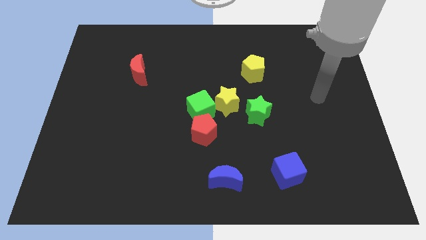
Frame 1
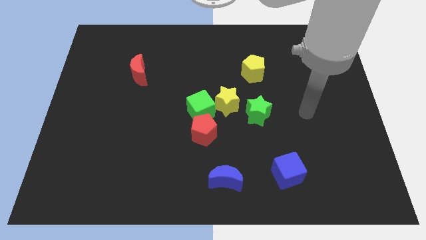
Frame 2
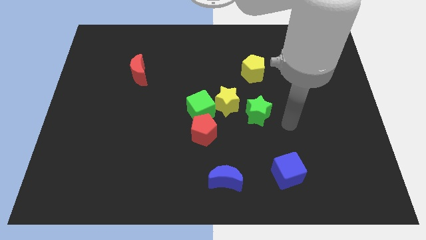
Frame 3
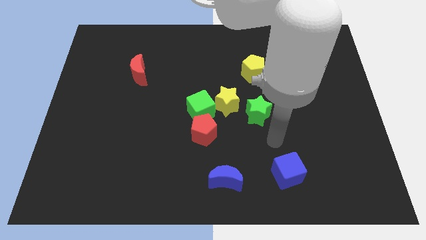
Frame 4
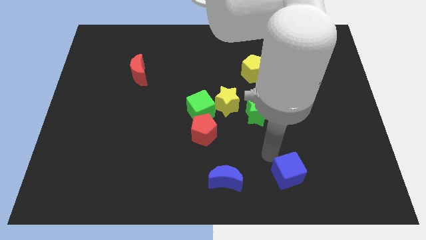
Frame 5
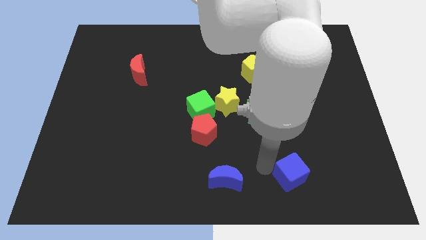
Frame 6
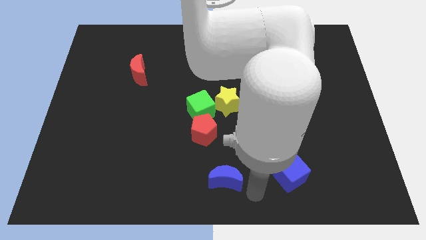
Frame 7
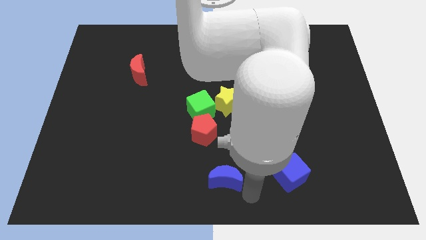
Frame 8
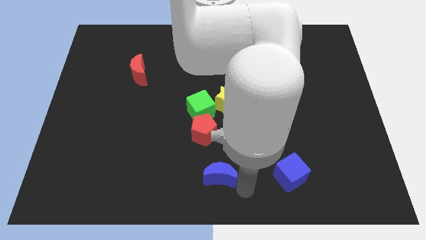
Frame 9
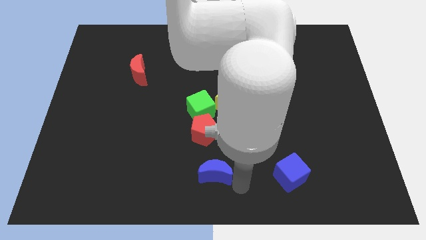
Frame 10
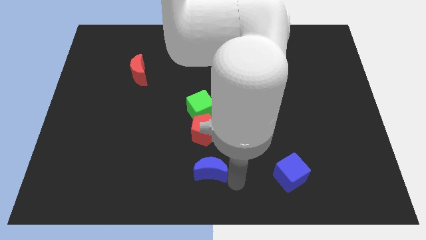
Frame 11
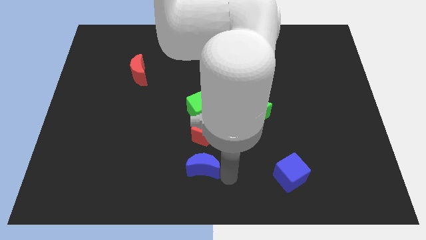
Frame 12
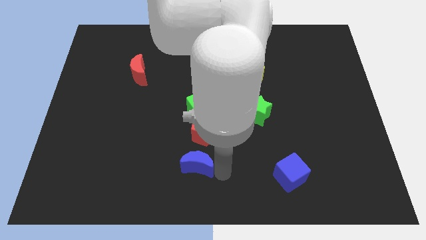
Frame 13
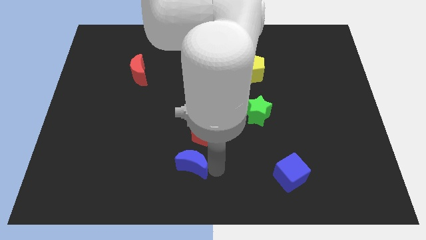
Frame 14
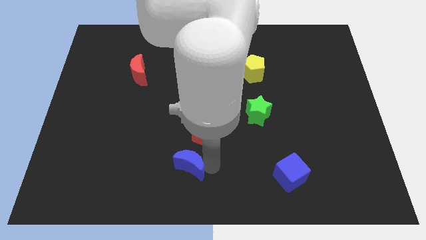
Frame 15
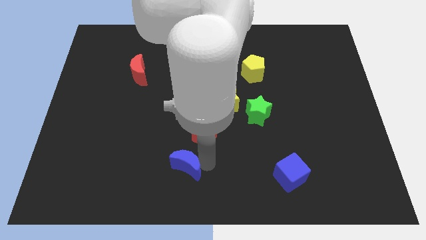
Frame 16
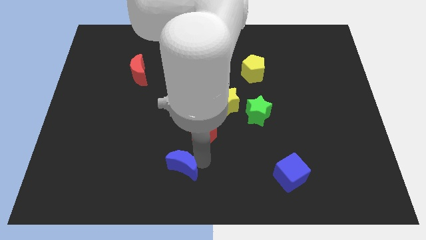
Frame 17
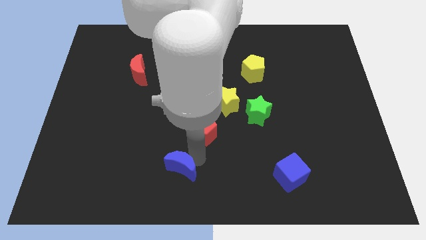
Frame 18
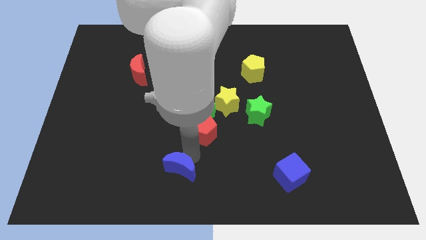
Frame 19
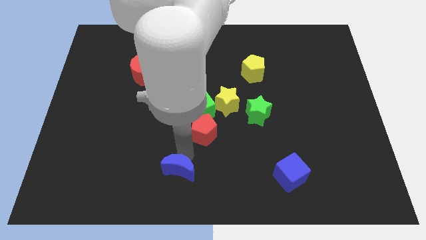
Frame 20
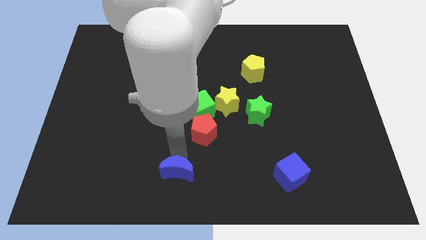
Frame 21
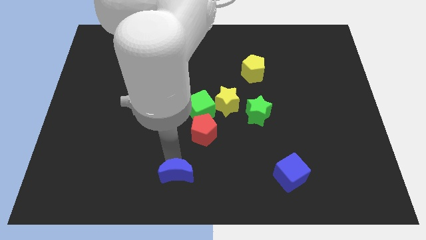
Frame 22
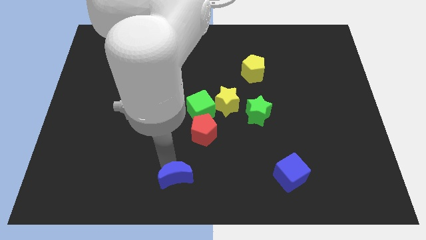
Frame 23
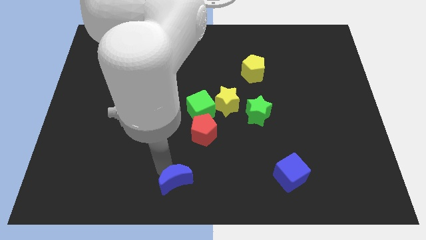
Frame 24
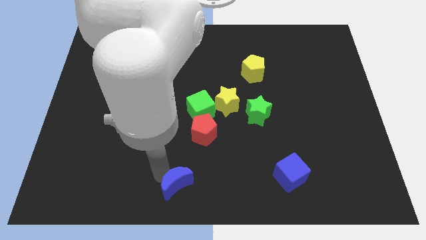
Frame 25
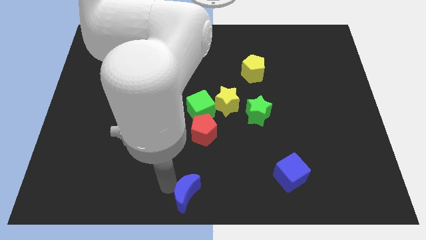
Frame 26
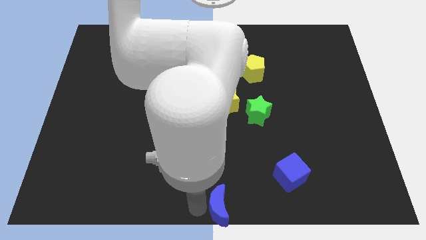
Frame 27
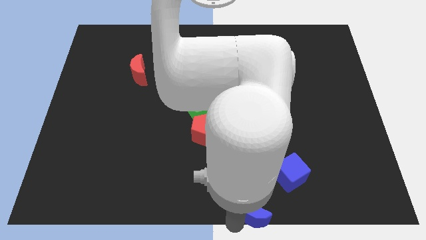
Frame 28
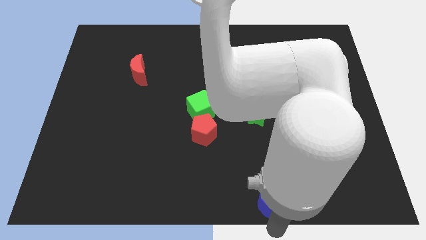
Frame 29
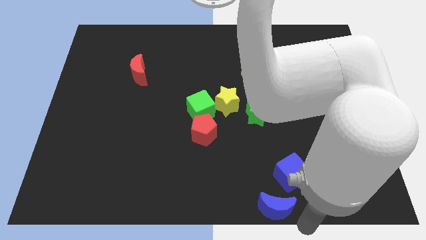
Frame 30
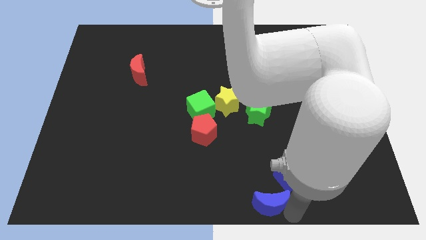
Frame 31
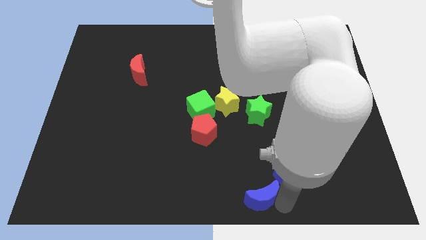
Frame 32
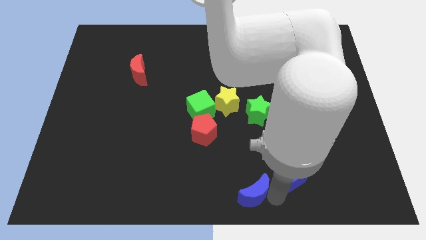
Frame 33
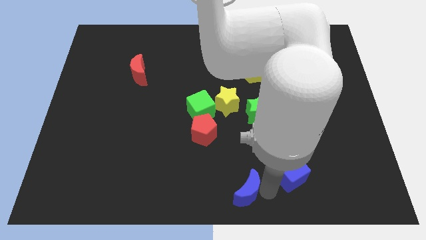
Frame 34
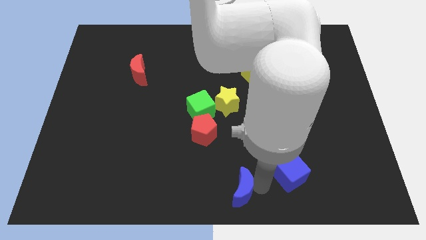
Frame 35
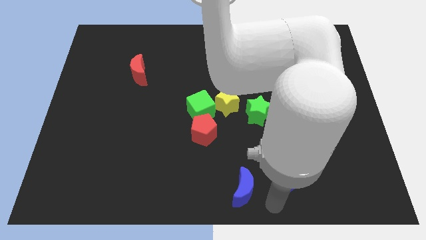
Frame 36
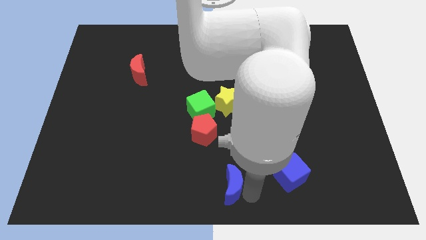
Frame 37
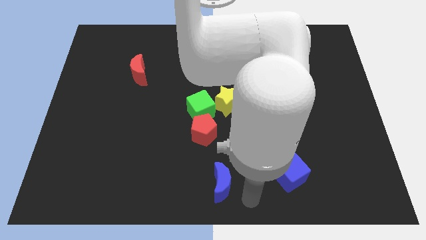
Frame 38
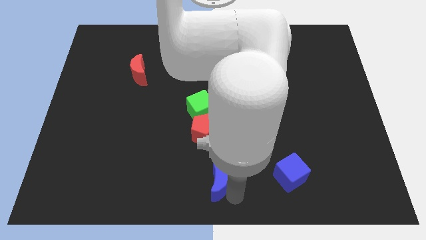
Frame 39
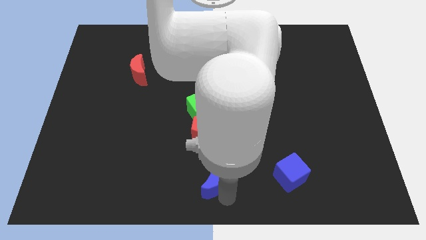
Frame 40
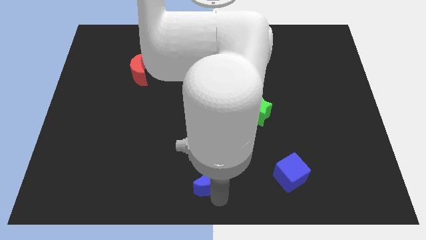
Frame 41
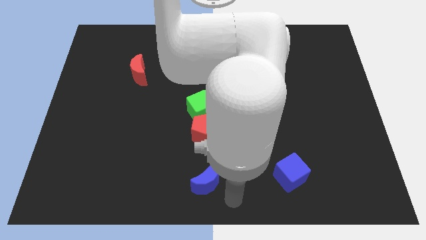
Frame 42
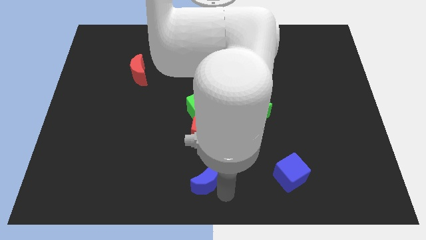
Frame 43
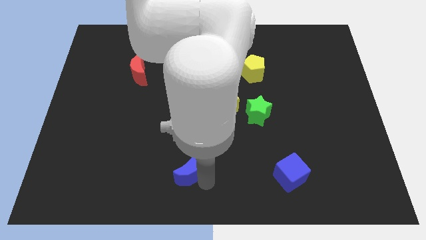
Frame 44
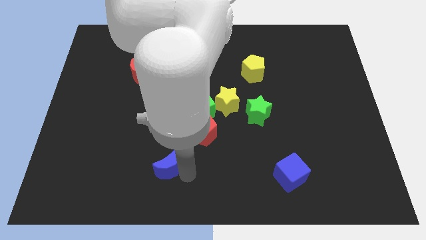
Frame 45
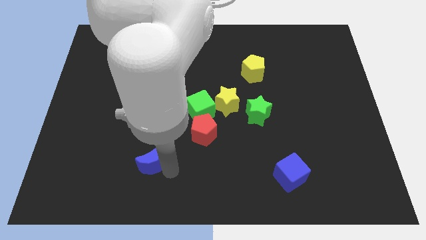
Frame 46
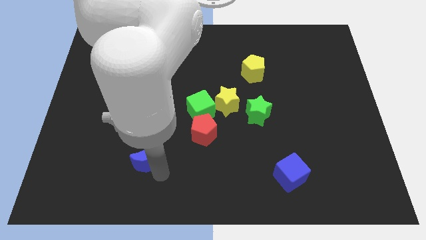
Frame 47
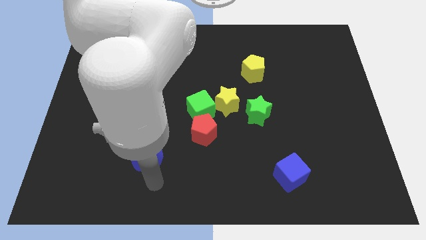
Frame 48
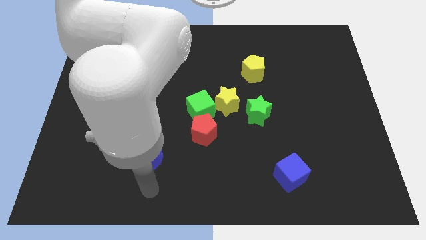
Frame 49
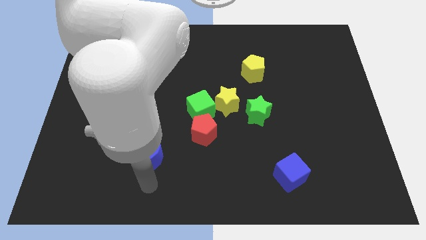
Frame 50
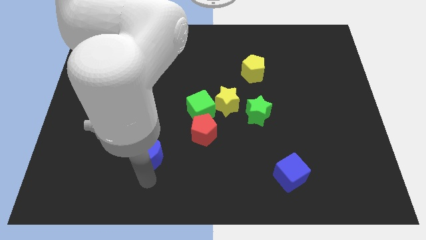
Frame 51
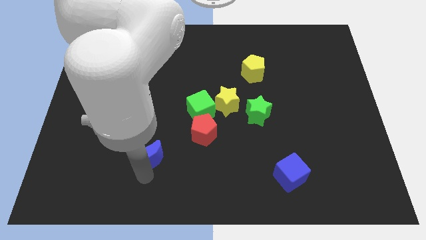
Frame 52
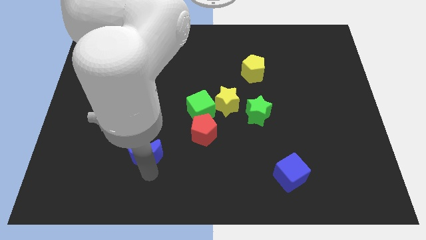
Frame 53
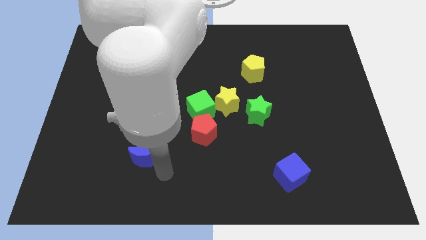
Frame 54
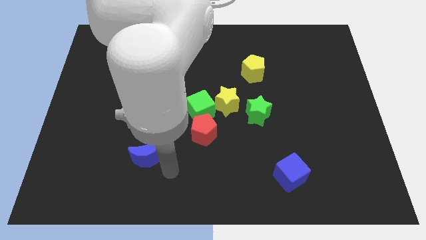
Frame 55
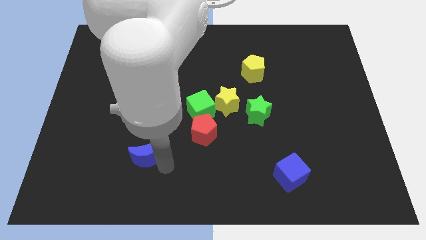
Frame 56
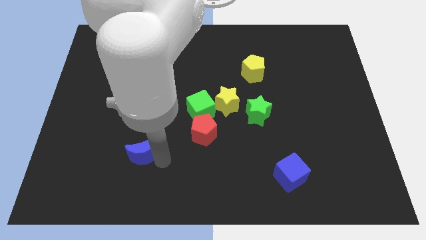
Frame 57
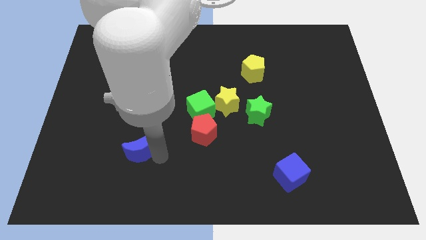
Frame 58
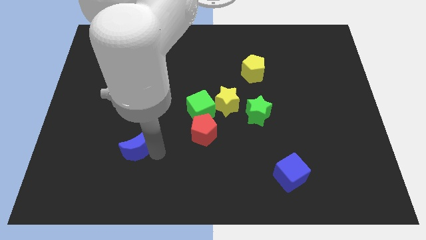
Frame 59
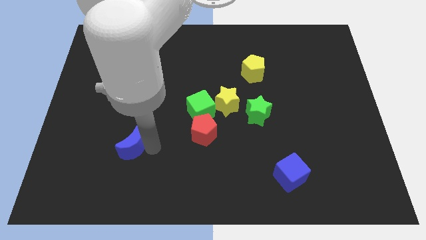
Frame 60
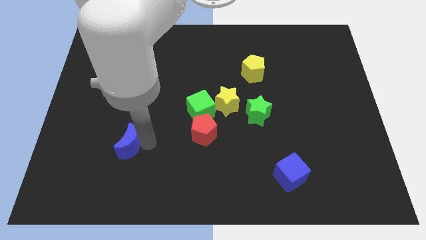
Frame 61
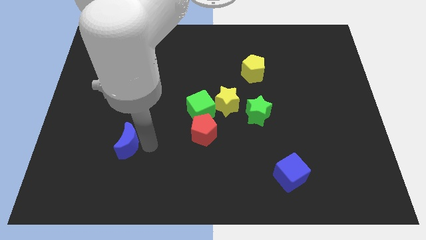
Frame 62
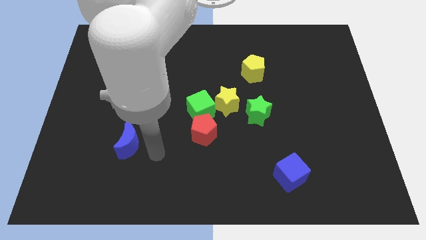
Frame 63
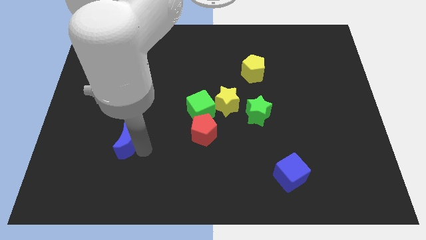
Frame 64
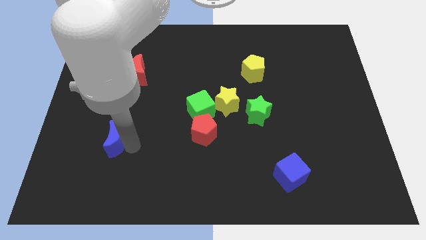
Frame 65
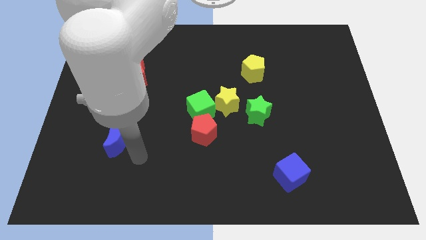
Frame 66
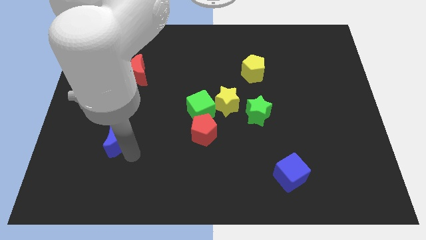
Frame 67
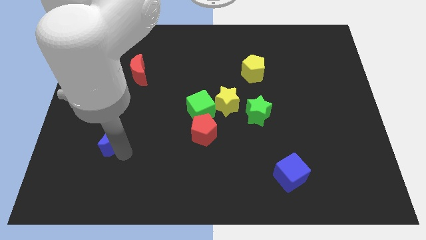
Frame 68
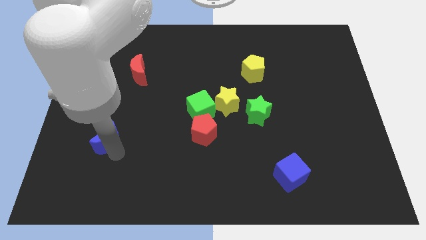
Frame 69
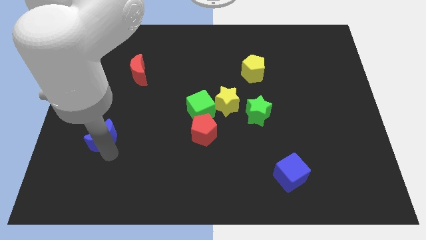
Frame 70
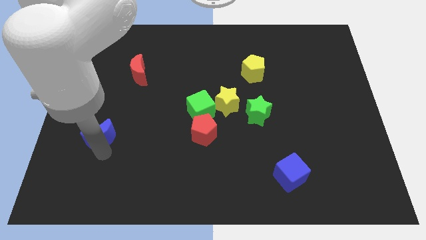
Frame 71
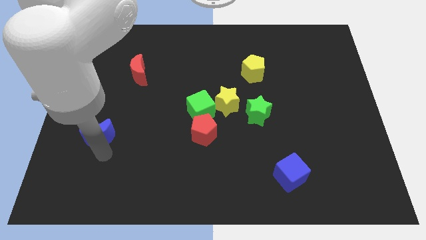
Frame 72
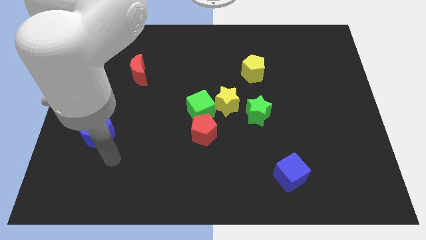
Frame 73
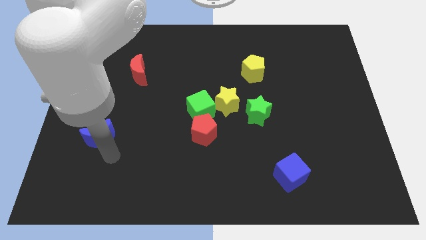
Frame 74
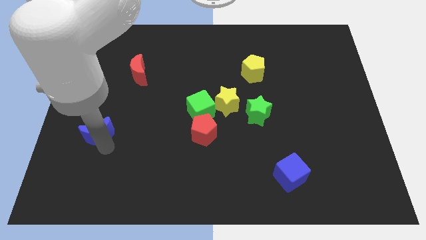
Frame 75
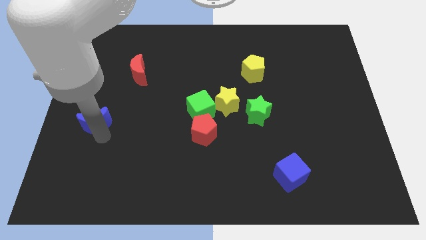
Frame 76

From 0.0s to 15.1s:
put the blue moon to the left side of the board

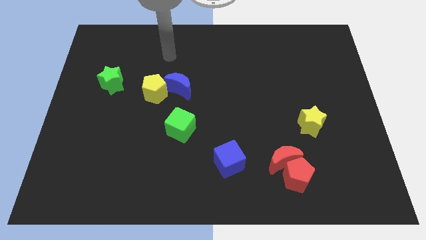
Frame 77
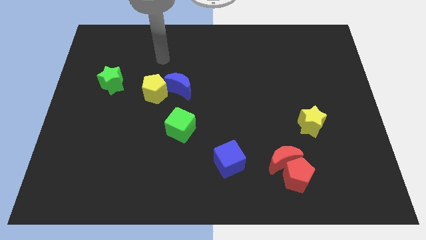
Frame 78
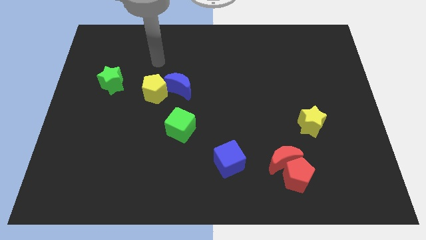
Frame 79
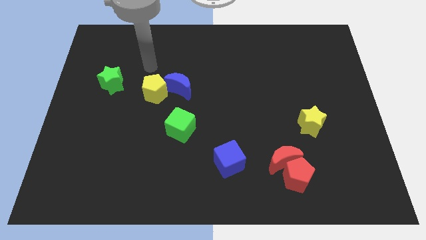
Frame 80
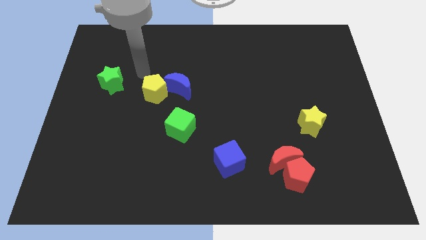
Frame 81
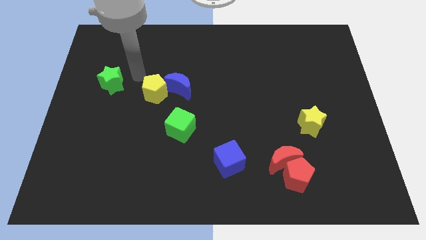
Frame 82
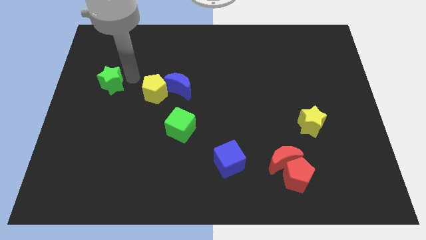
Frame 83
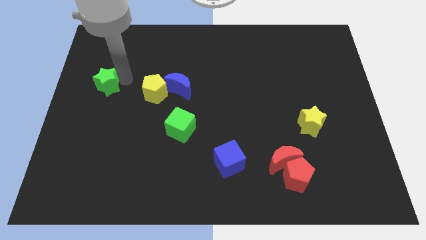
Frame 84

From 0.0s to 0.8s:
slide the green star to the left side
